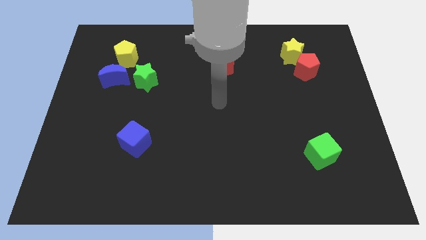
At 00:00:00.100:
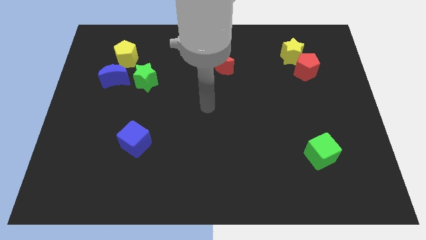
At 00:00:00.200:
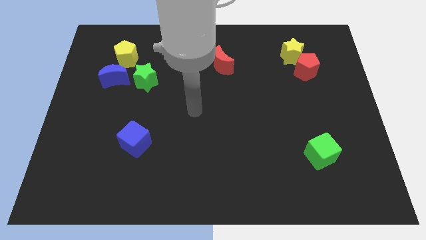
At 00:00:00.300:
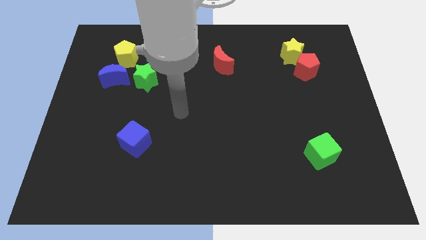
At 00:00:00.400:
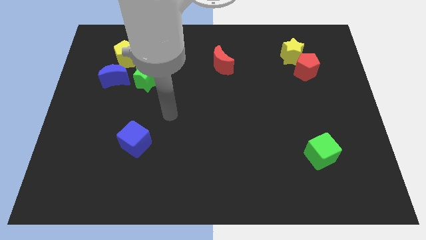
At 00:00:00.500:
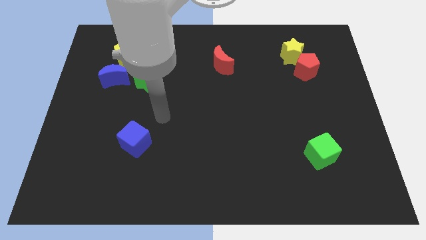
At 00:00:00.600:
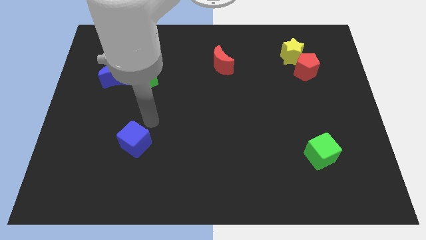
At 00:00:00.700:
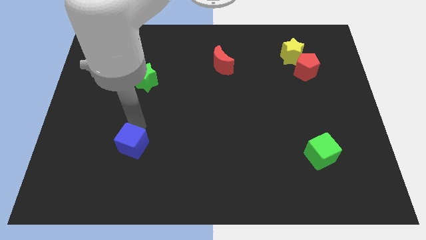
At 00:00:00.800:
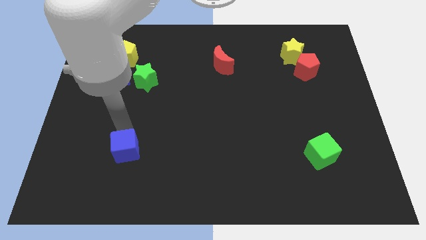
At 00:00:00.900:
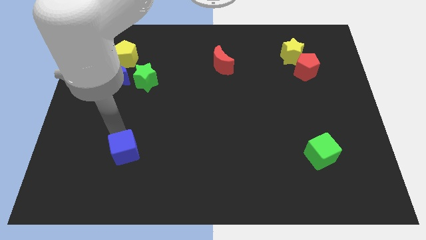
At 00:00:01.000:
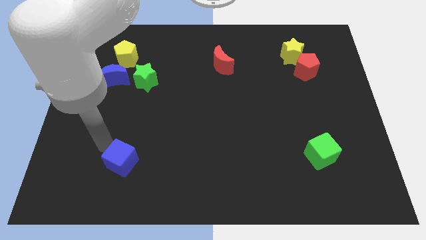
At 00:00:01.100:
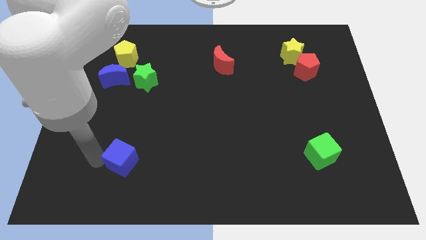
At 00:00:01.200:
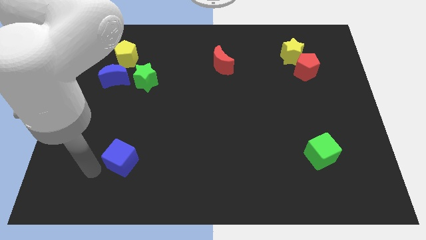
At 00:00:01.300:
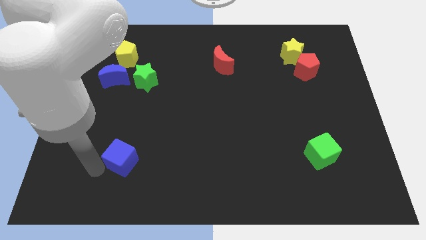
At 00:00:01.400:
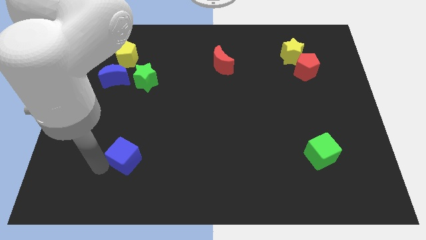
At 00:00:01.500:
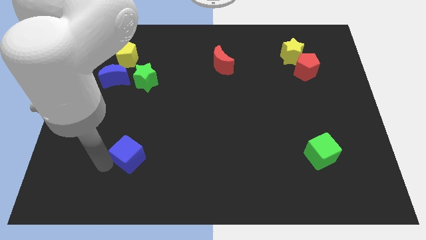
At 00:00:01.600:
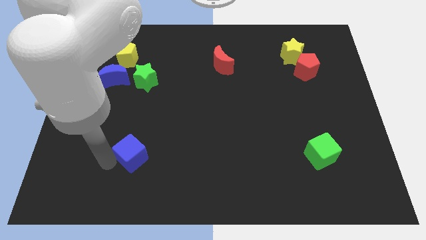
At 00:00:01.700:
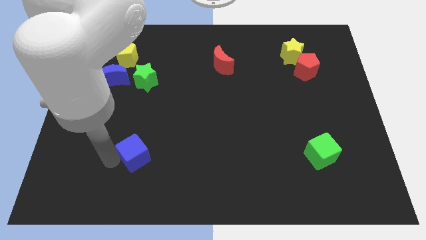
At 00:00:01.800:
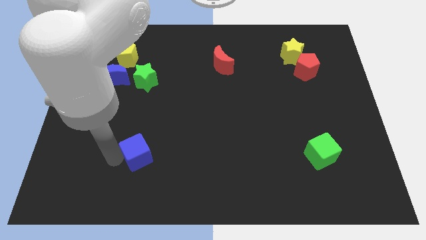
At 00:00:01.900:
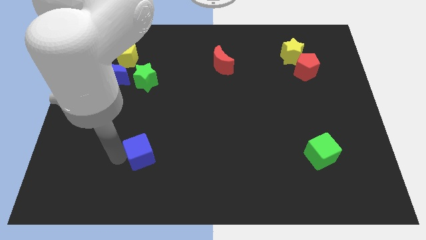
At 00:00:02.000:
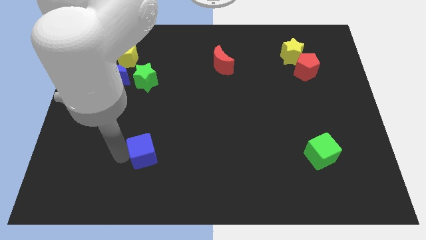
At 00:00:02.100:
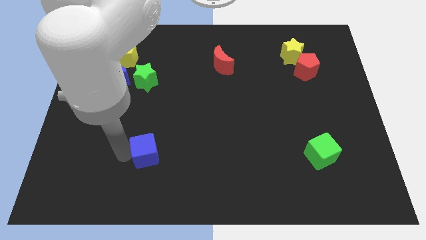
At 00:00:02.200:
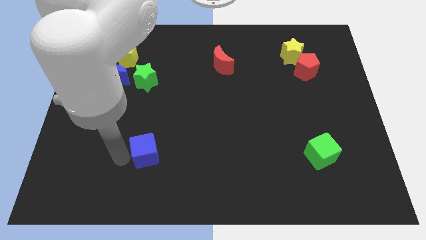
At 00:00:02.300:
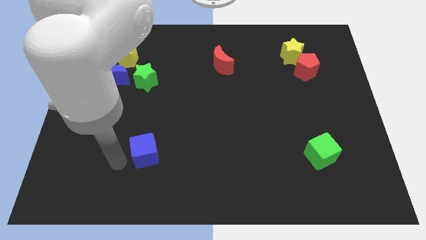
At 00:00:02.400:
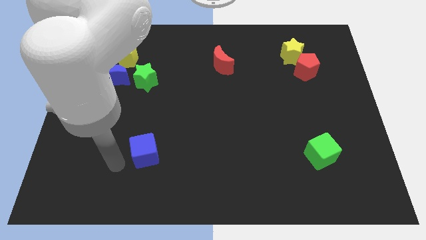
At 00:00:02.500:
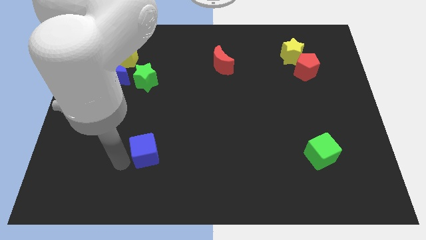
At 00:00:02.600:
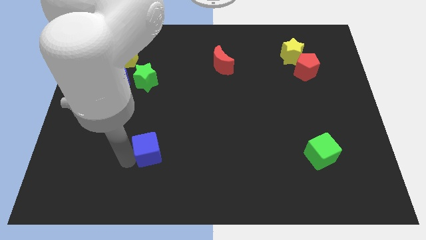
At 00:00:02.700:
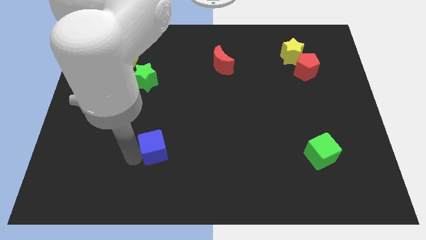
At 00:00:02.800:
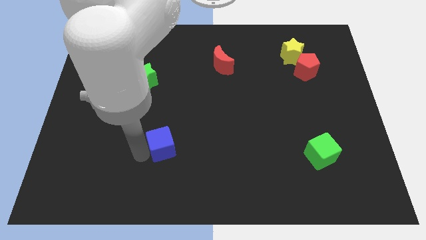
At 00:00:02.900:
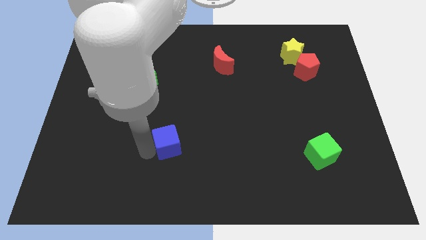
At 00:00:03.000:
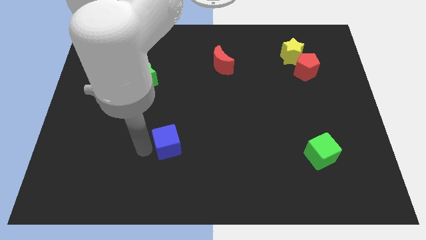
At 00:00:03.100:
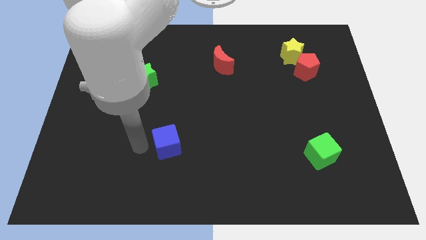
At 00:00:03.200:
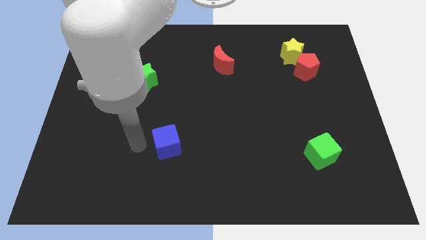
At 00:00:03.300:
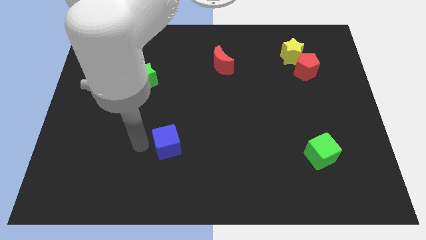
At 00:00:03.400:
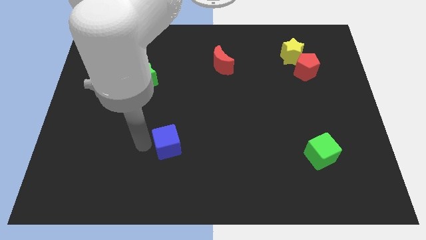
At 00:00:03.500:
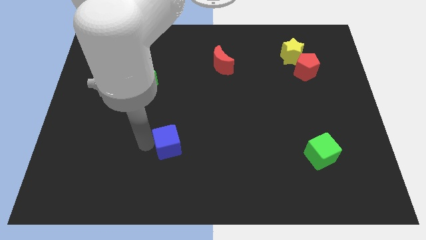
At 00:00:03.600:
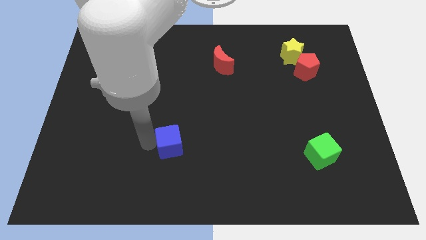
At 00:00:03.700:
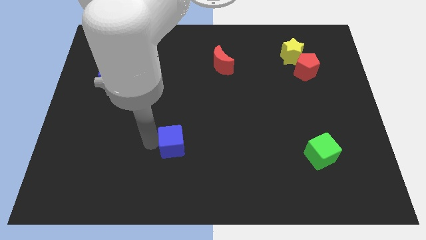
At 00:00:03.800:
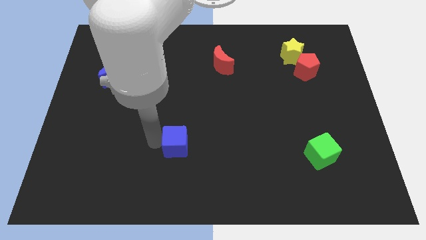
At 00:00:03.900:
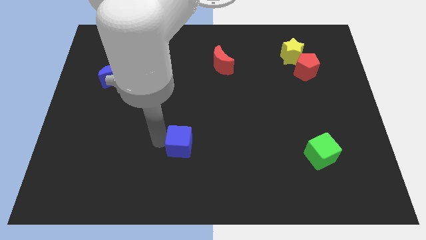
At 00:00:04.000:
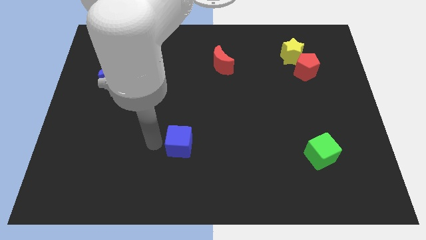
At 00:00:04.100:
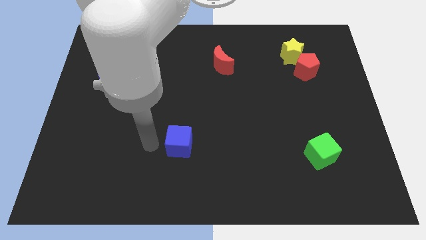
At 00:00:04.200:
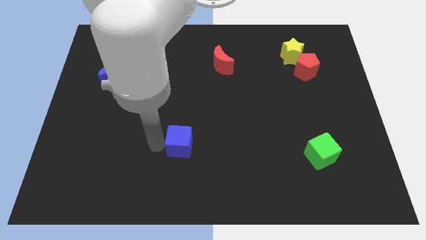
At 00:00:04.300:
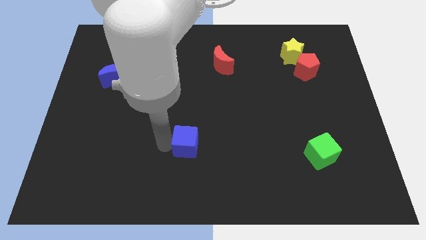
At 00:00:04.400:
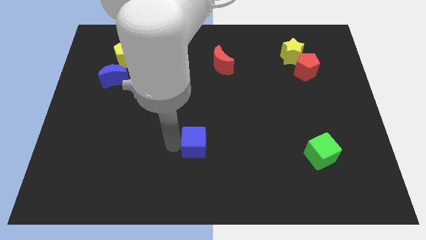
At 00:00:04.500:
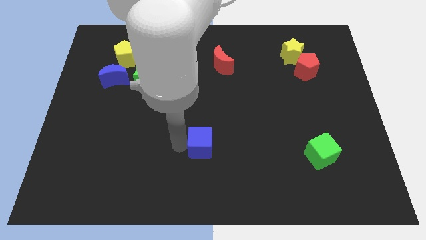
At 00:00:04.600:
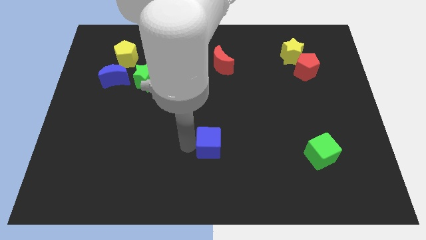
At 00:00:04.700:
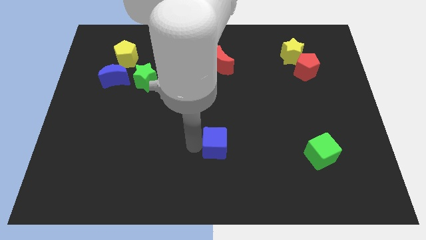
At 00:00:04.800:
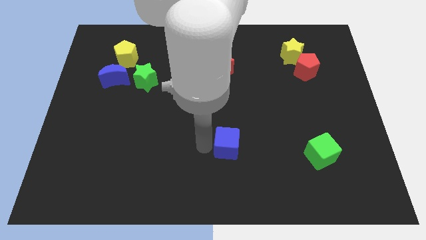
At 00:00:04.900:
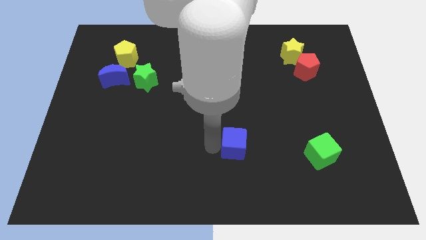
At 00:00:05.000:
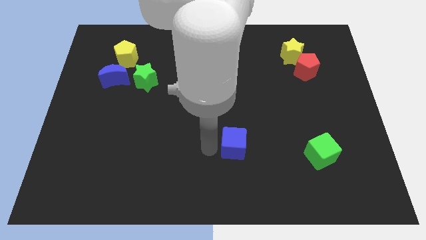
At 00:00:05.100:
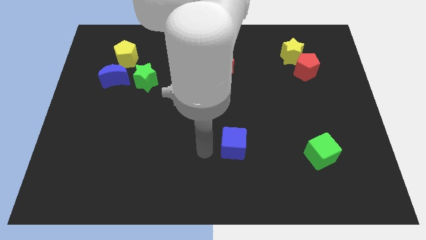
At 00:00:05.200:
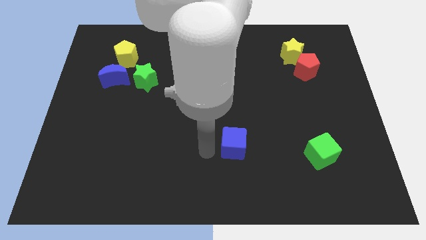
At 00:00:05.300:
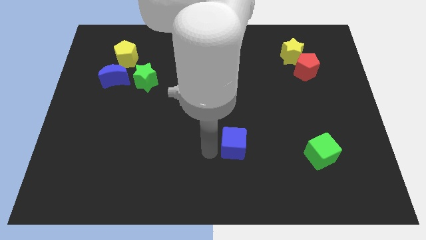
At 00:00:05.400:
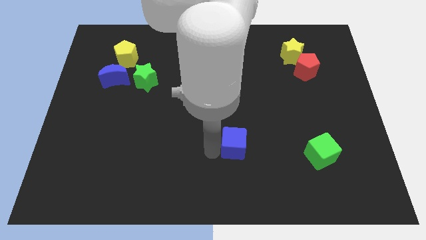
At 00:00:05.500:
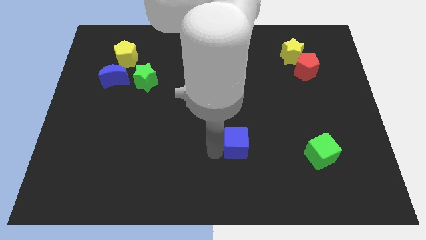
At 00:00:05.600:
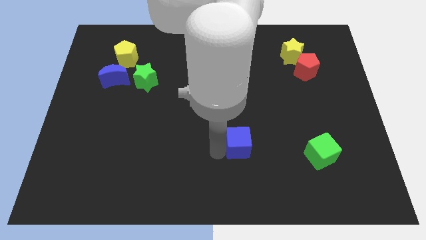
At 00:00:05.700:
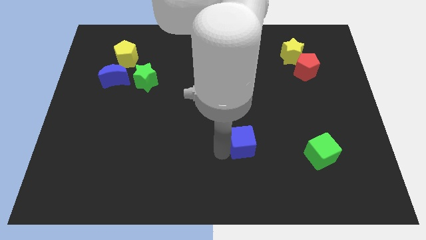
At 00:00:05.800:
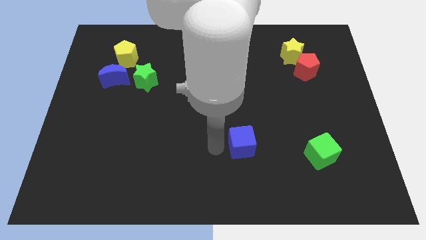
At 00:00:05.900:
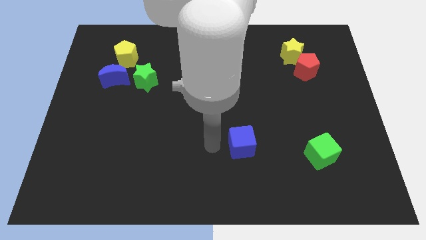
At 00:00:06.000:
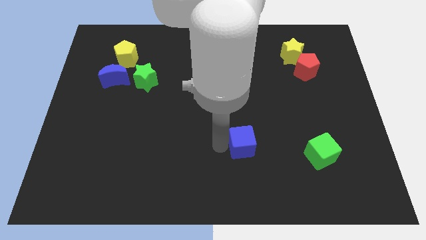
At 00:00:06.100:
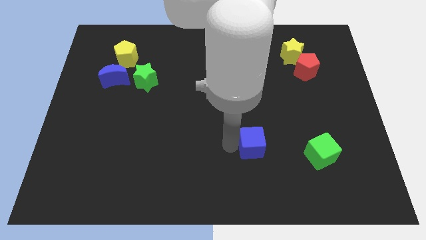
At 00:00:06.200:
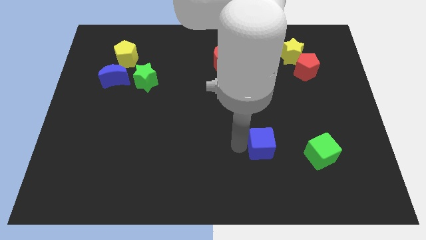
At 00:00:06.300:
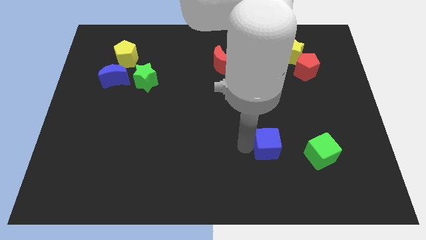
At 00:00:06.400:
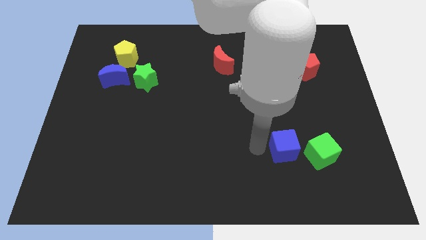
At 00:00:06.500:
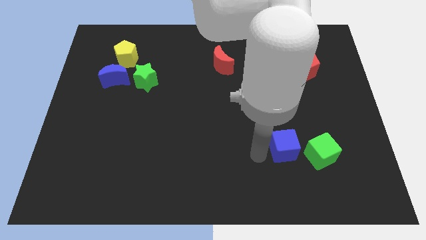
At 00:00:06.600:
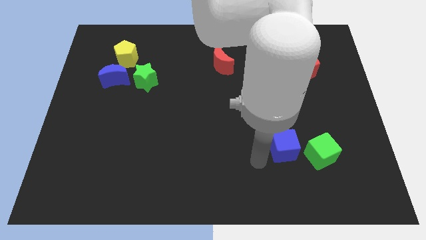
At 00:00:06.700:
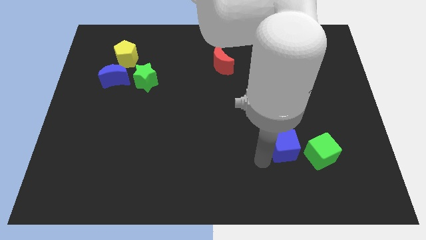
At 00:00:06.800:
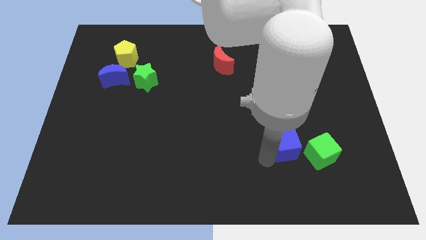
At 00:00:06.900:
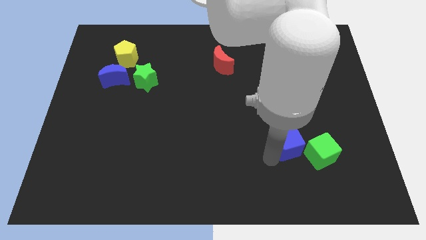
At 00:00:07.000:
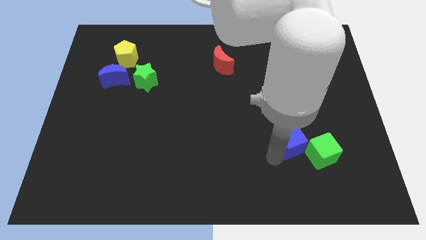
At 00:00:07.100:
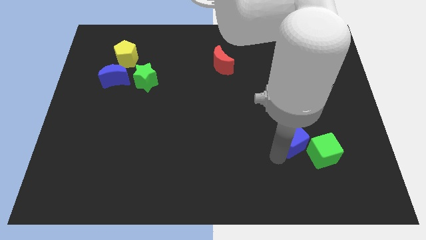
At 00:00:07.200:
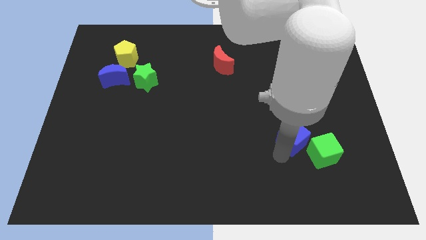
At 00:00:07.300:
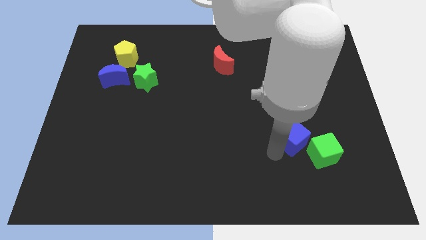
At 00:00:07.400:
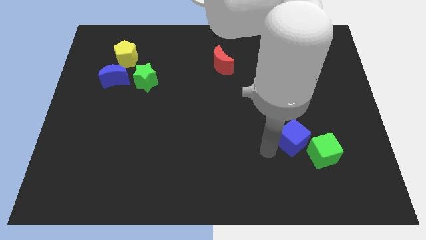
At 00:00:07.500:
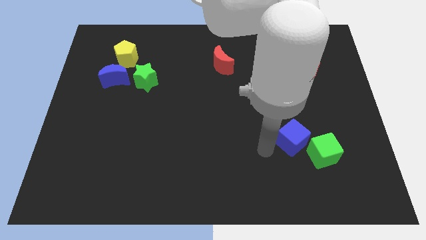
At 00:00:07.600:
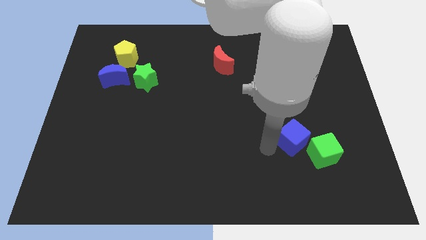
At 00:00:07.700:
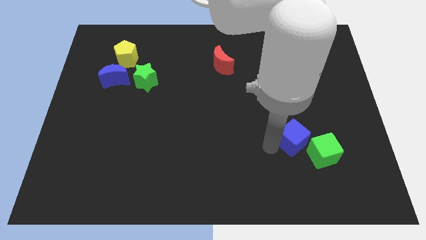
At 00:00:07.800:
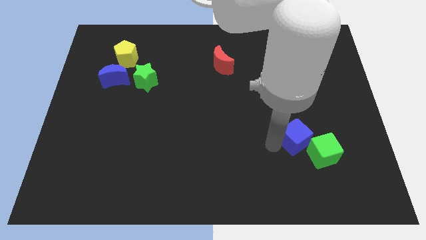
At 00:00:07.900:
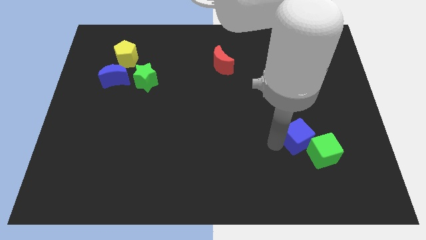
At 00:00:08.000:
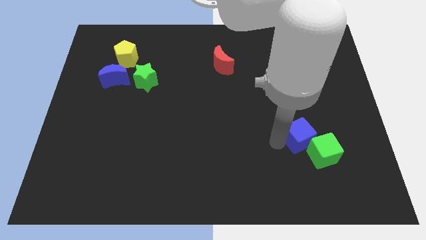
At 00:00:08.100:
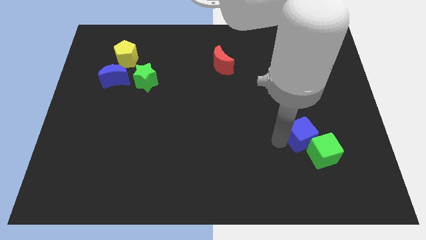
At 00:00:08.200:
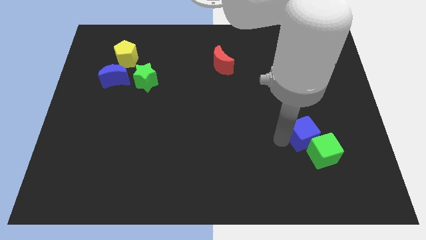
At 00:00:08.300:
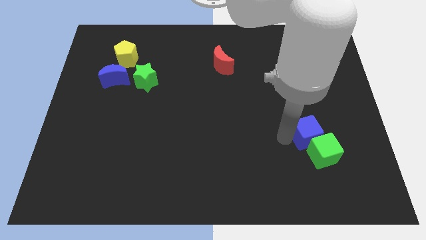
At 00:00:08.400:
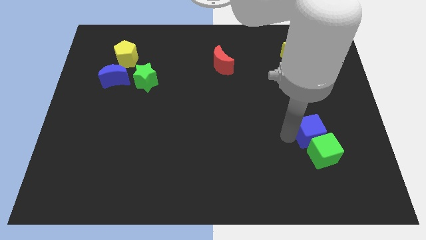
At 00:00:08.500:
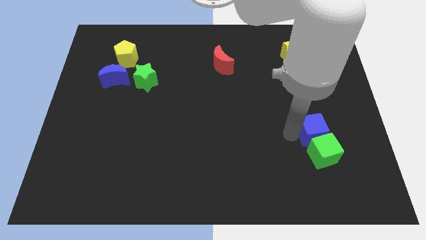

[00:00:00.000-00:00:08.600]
slide the blue cube to the top right side of the green cube
